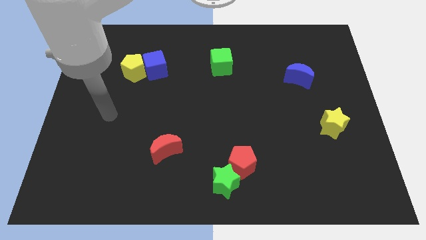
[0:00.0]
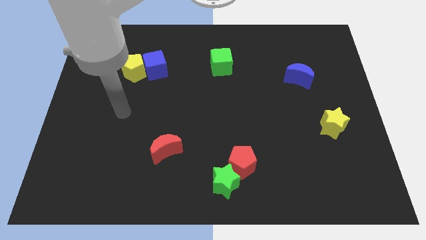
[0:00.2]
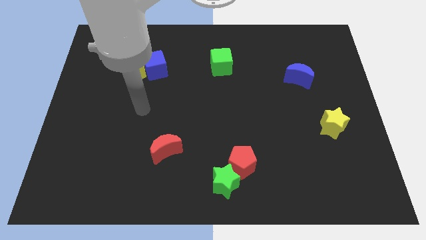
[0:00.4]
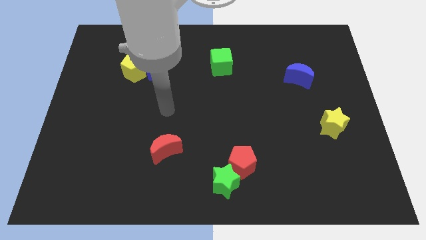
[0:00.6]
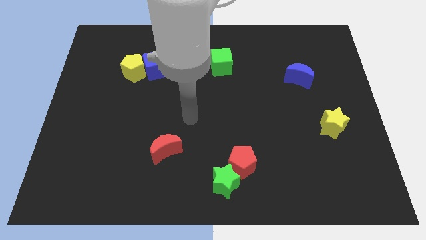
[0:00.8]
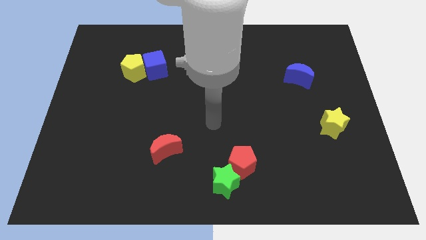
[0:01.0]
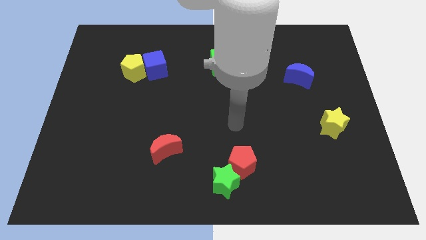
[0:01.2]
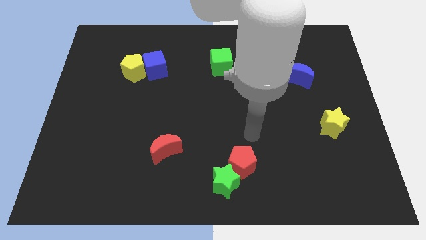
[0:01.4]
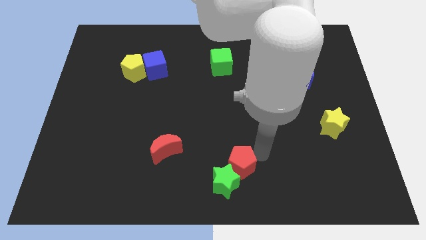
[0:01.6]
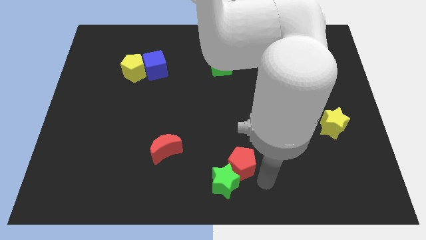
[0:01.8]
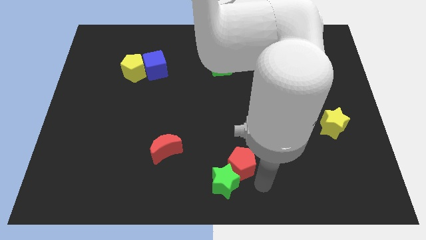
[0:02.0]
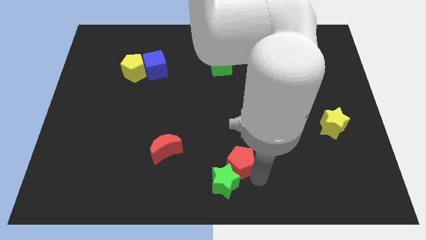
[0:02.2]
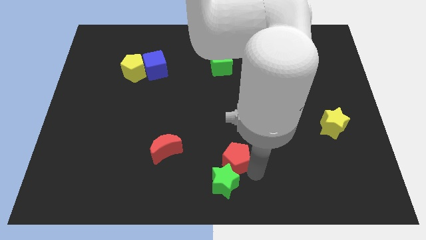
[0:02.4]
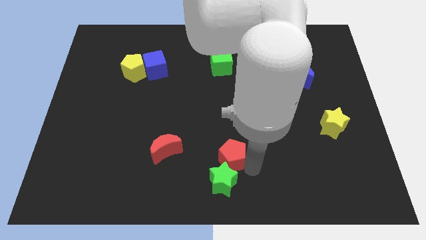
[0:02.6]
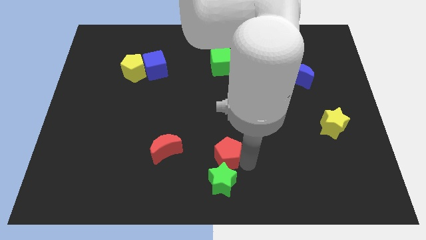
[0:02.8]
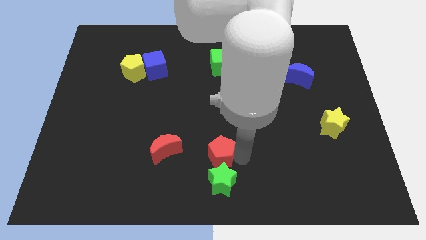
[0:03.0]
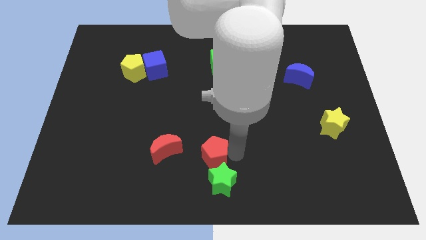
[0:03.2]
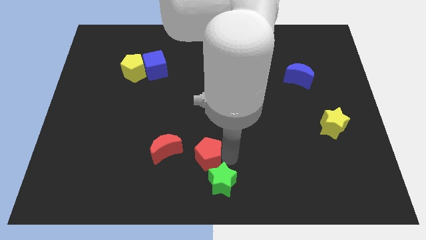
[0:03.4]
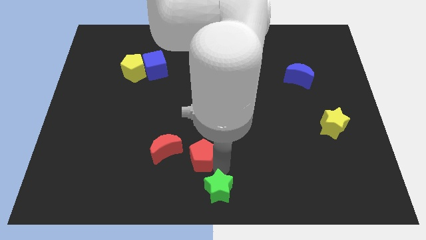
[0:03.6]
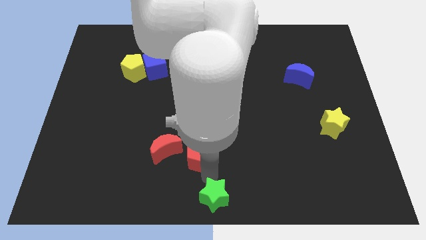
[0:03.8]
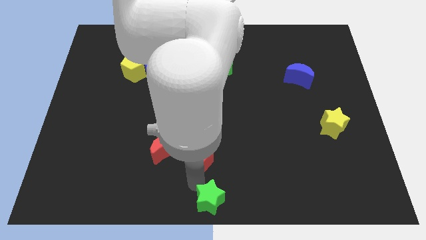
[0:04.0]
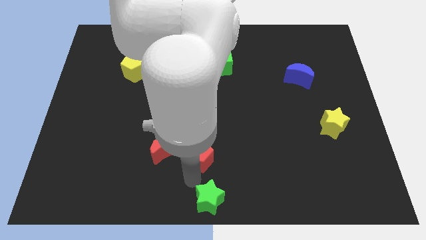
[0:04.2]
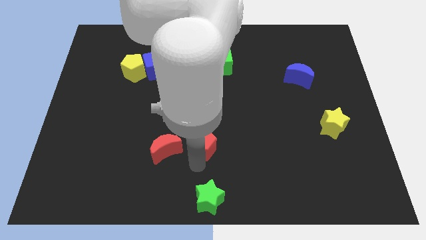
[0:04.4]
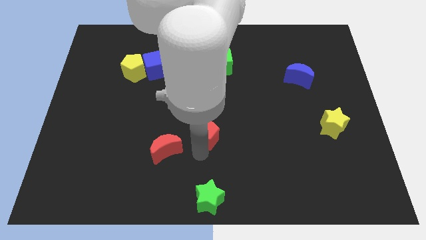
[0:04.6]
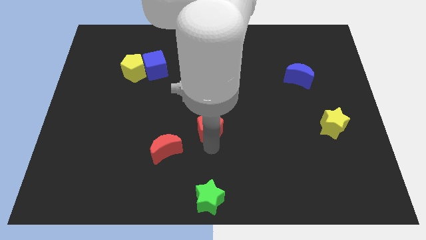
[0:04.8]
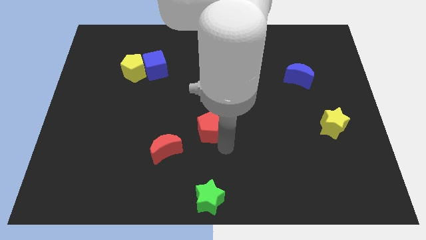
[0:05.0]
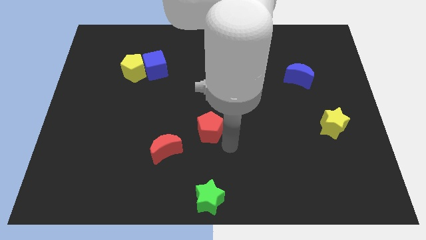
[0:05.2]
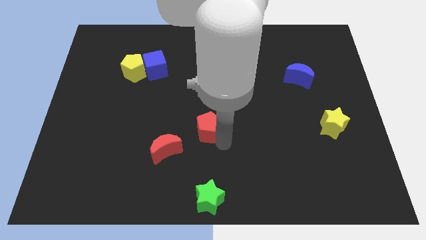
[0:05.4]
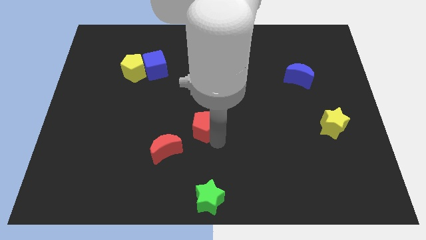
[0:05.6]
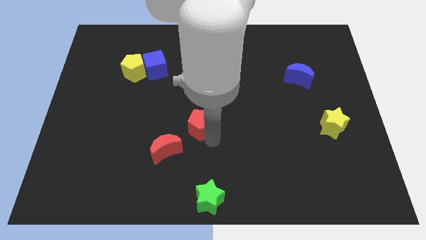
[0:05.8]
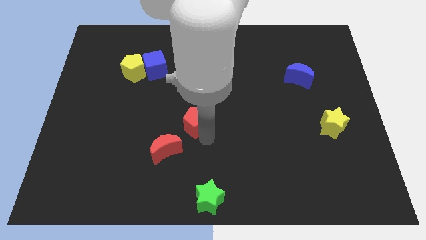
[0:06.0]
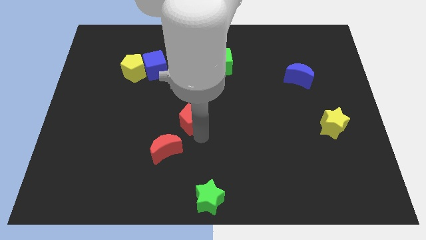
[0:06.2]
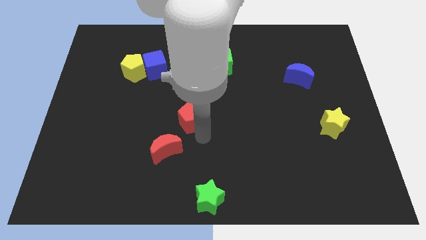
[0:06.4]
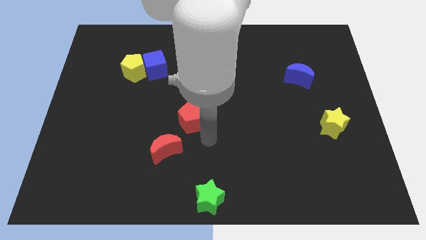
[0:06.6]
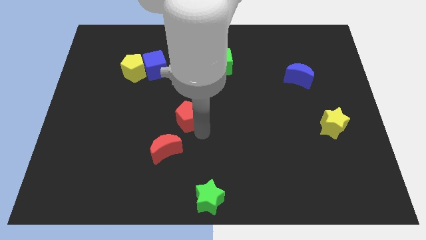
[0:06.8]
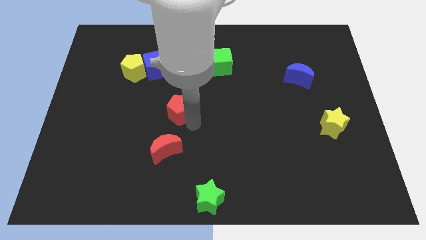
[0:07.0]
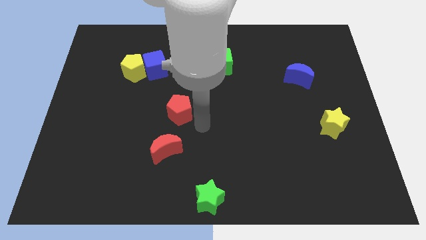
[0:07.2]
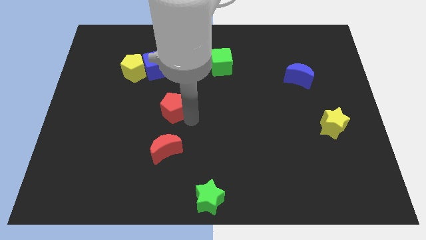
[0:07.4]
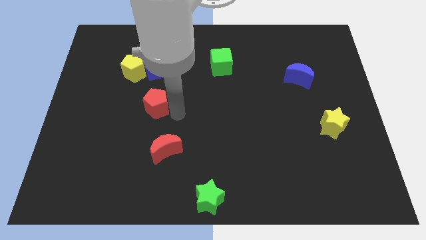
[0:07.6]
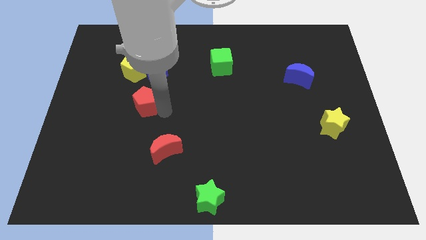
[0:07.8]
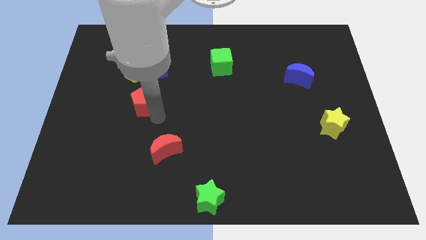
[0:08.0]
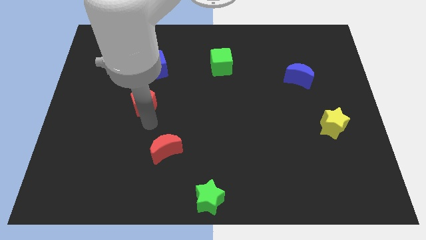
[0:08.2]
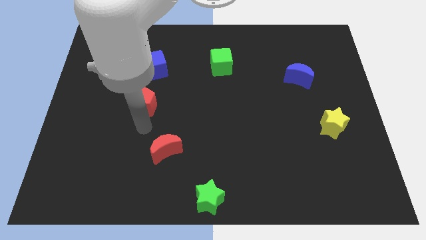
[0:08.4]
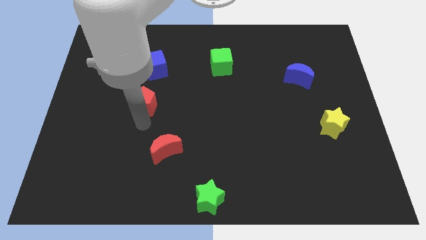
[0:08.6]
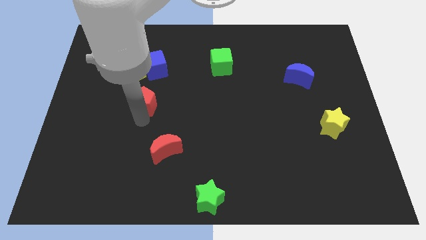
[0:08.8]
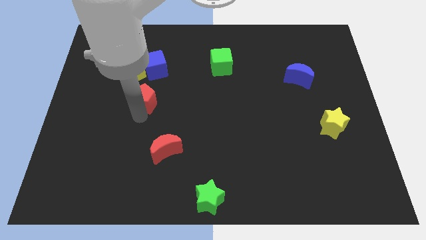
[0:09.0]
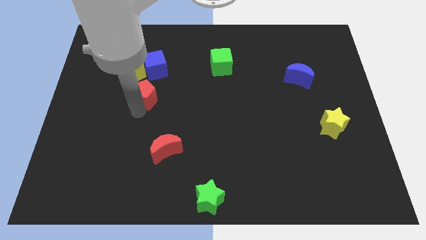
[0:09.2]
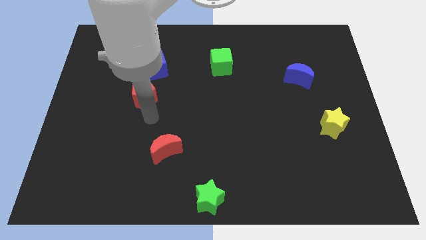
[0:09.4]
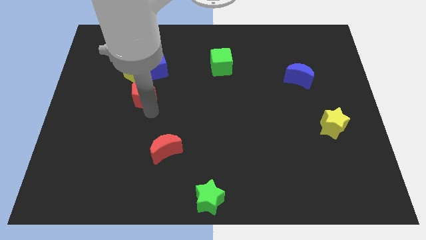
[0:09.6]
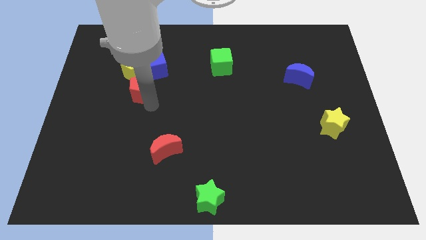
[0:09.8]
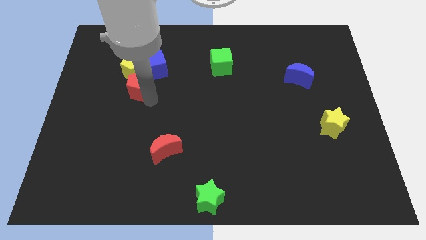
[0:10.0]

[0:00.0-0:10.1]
slide the red pentagon next to the yellow pentagon

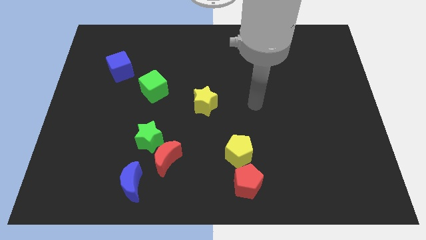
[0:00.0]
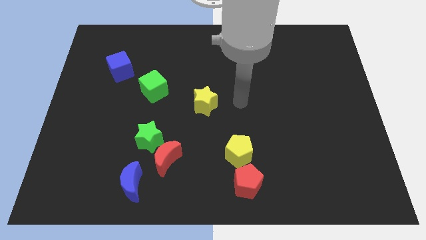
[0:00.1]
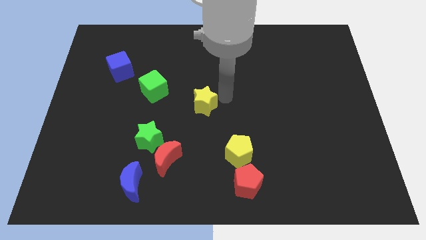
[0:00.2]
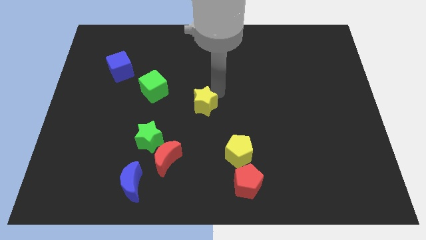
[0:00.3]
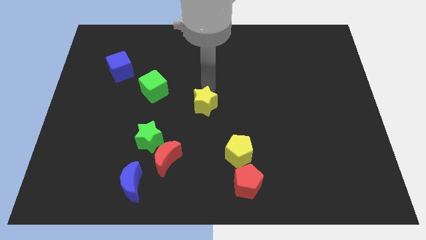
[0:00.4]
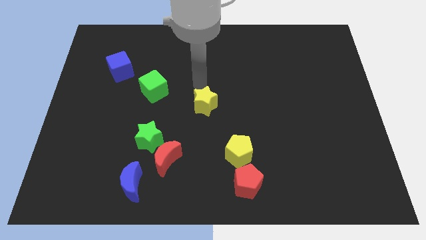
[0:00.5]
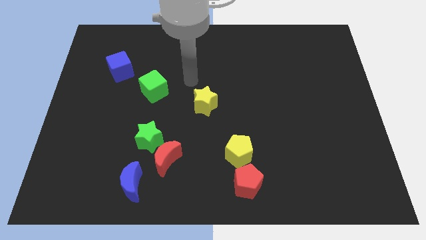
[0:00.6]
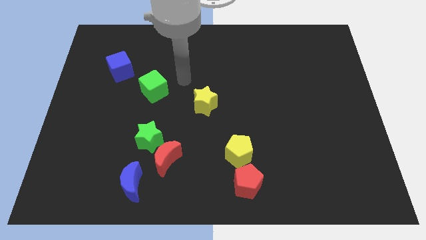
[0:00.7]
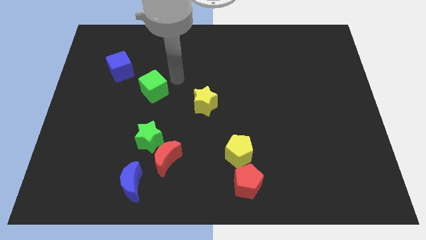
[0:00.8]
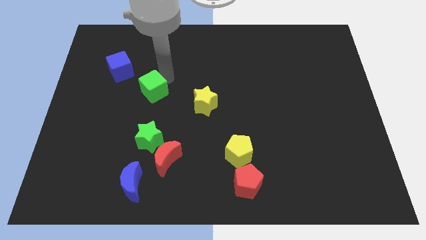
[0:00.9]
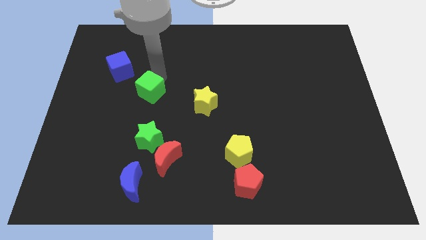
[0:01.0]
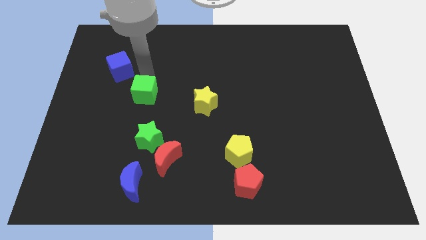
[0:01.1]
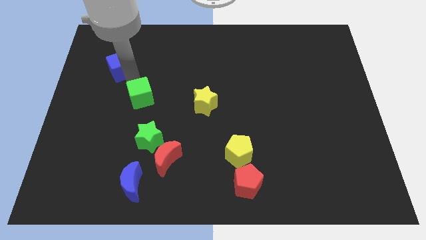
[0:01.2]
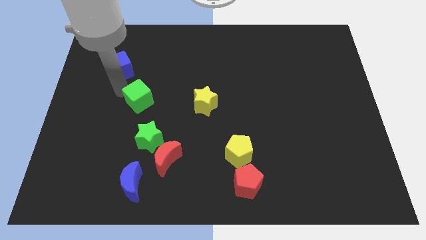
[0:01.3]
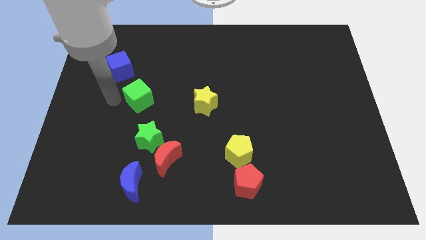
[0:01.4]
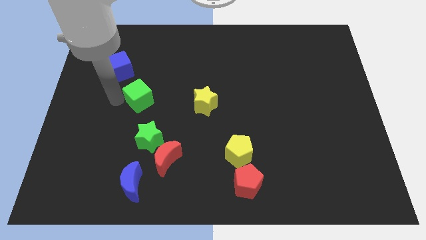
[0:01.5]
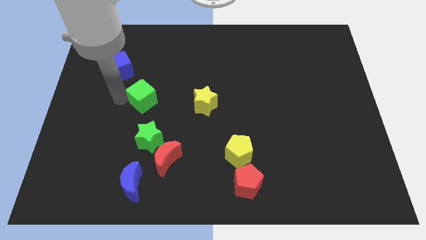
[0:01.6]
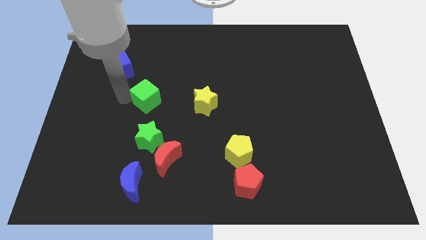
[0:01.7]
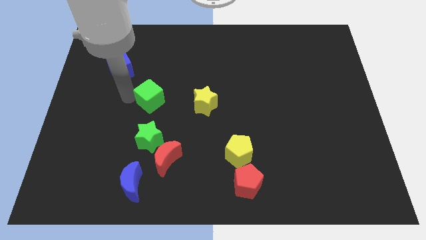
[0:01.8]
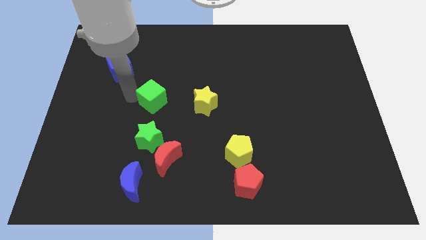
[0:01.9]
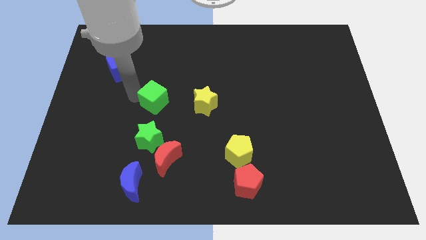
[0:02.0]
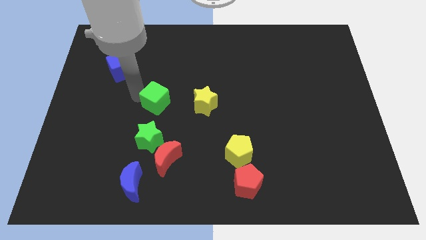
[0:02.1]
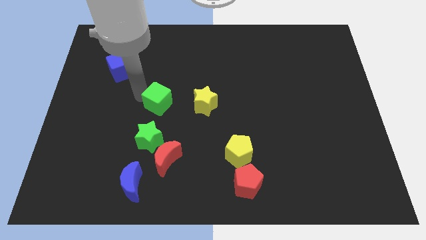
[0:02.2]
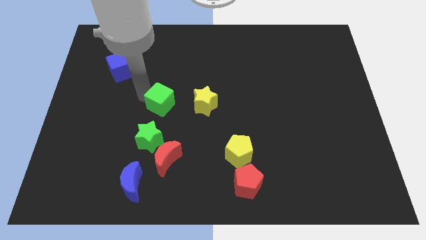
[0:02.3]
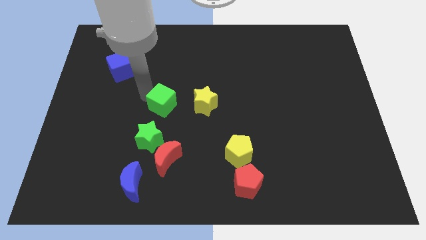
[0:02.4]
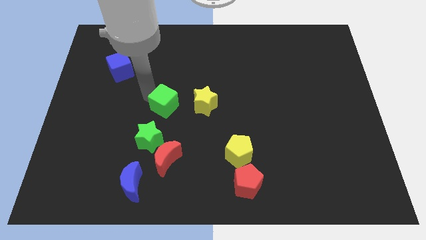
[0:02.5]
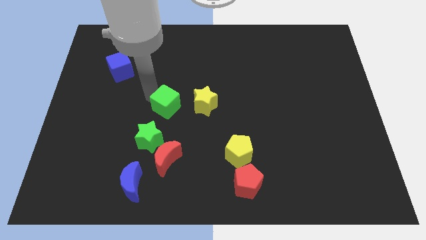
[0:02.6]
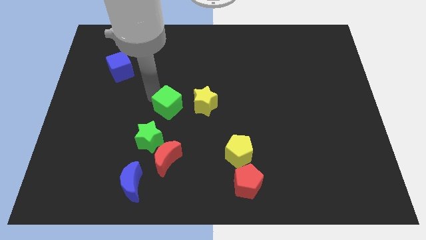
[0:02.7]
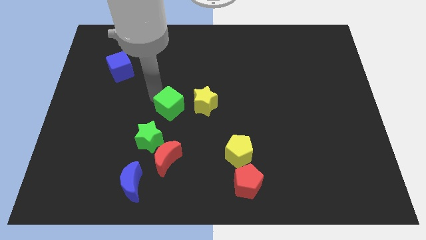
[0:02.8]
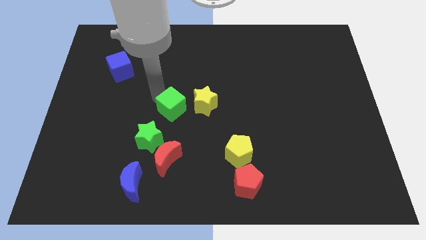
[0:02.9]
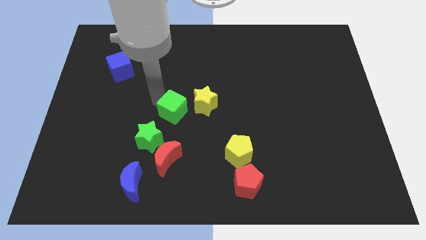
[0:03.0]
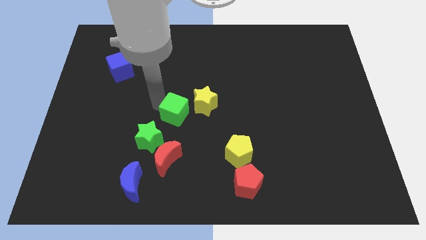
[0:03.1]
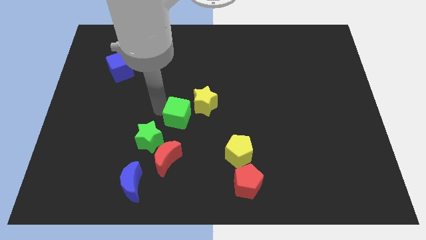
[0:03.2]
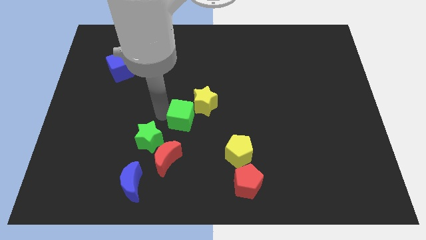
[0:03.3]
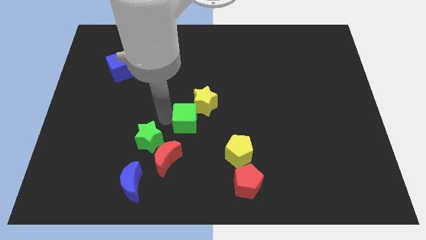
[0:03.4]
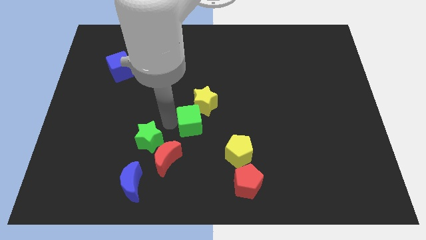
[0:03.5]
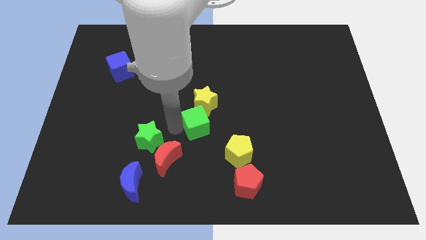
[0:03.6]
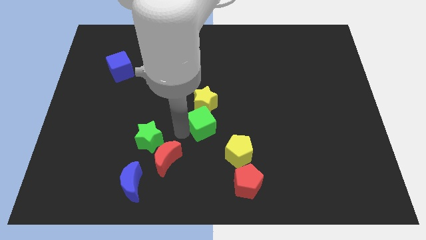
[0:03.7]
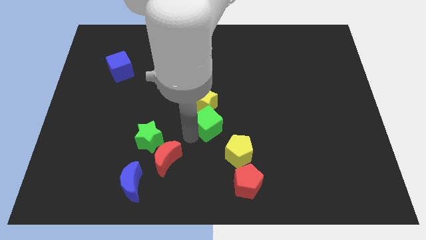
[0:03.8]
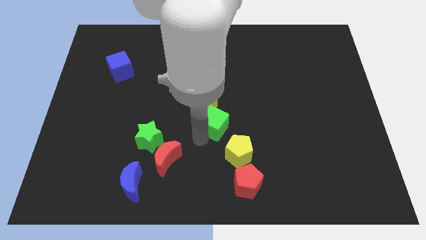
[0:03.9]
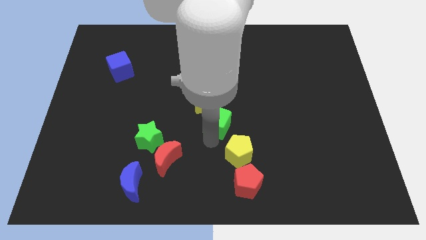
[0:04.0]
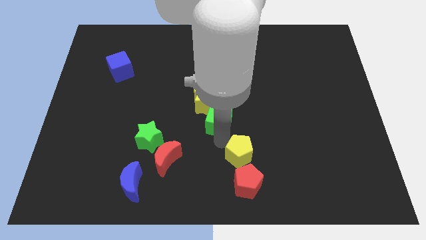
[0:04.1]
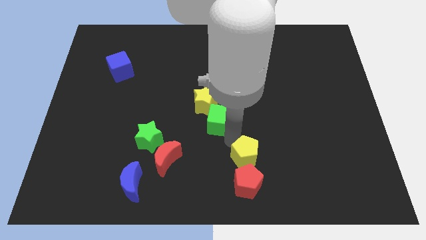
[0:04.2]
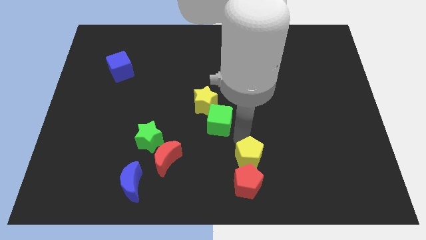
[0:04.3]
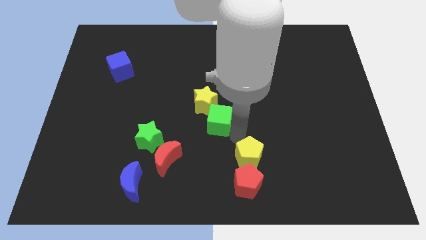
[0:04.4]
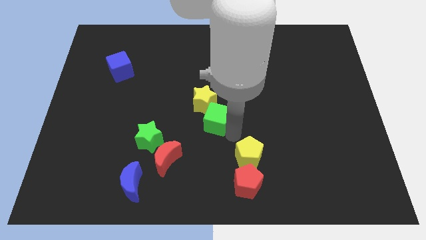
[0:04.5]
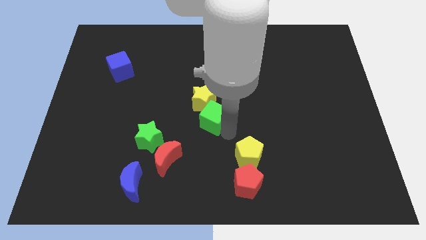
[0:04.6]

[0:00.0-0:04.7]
move the green cube to the yellow star
